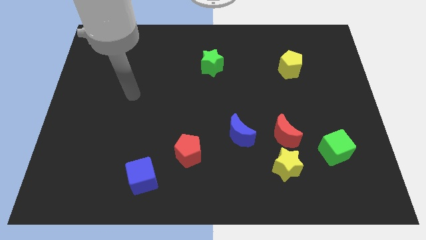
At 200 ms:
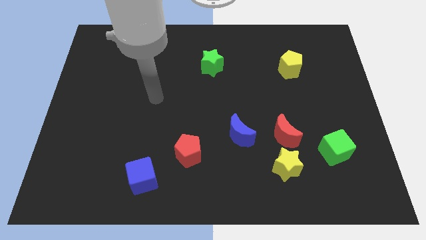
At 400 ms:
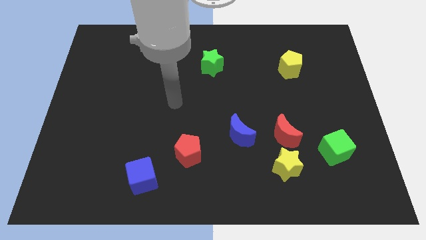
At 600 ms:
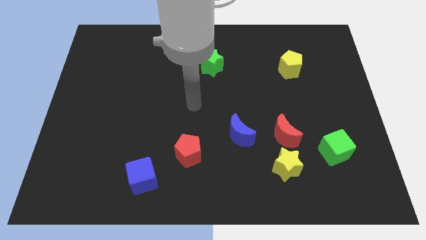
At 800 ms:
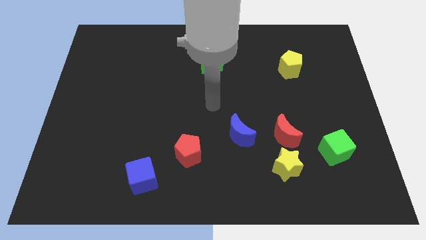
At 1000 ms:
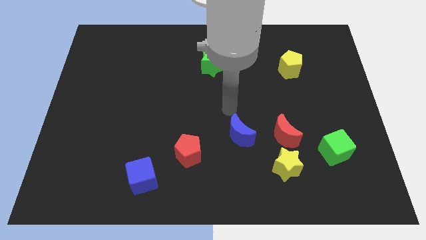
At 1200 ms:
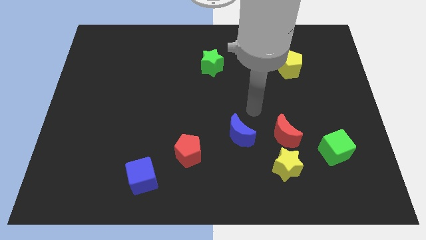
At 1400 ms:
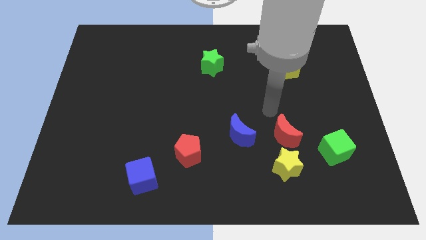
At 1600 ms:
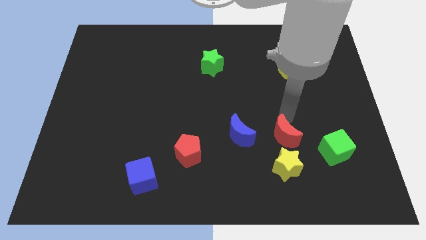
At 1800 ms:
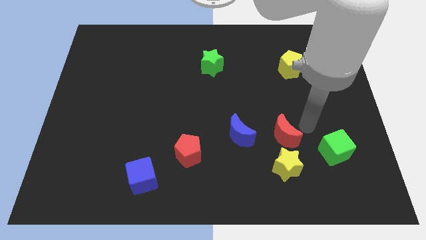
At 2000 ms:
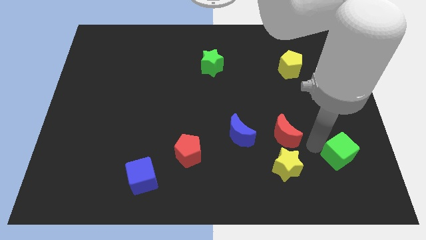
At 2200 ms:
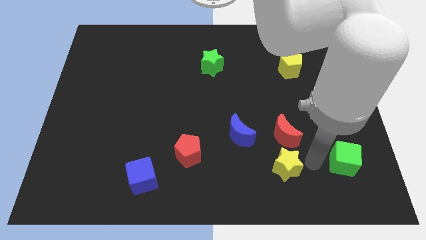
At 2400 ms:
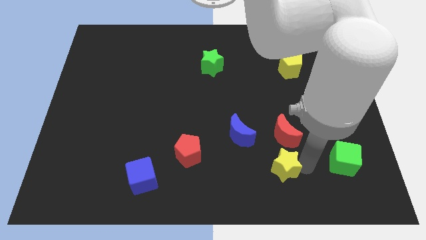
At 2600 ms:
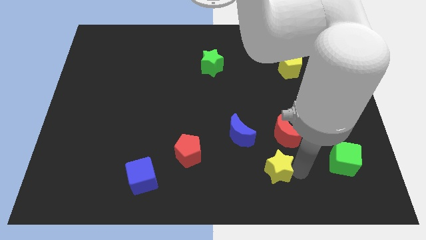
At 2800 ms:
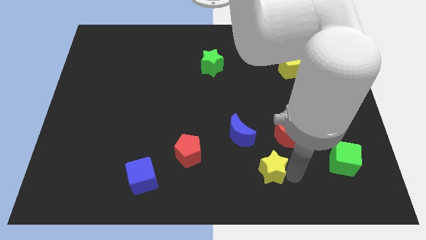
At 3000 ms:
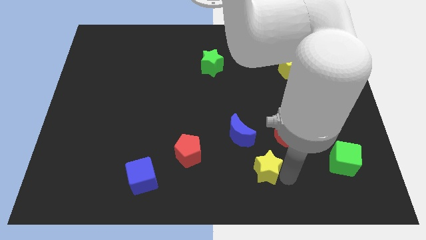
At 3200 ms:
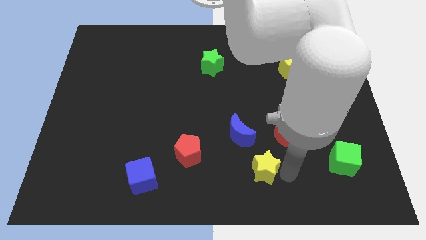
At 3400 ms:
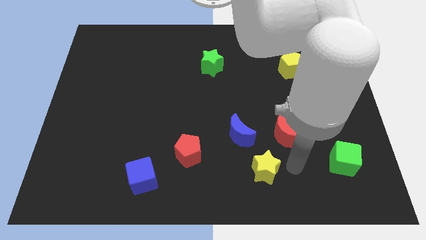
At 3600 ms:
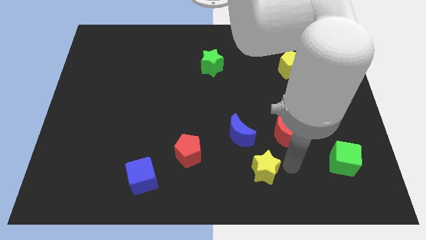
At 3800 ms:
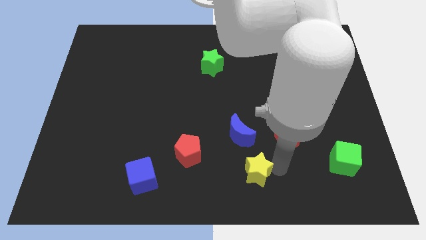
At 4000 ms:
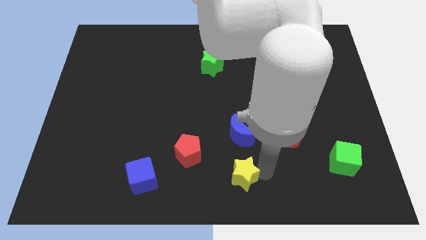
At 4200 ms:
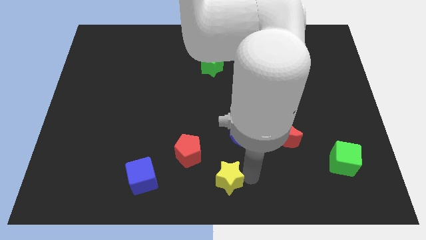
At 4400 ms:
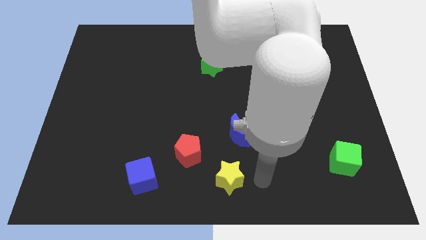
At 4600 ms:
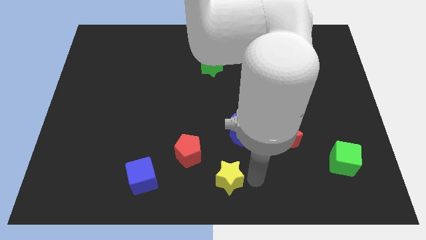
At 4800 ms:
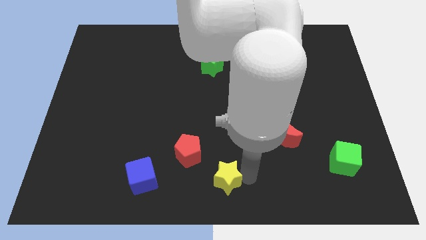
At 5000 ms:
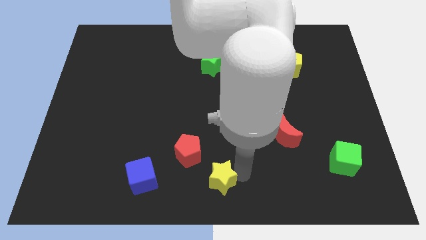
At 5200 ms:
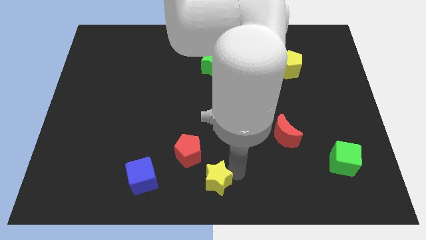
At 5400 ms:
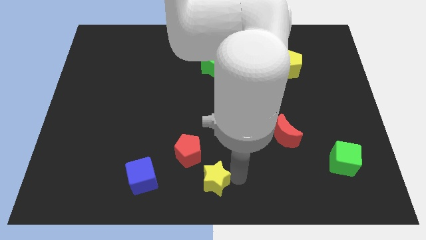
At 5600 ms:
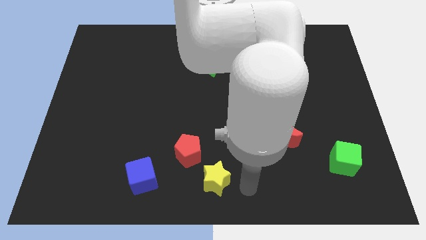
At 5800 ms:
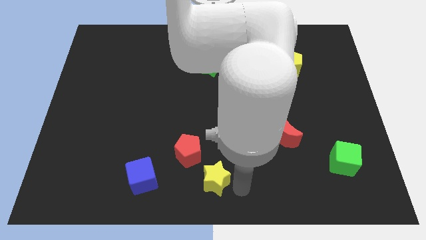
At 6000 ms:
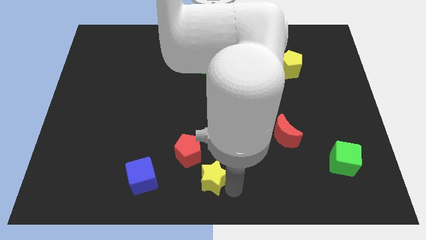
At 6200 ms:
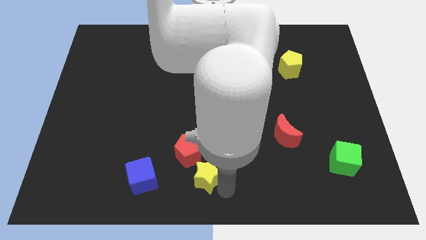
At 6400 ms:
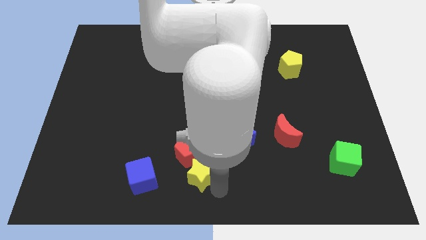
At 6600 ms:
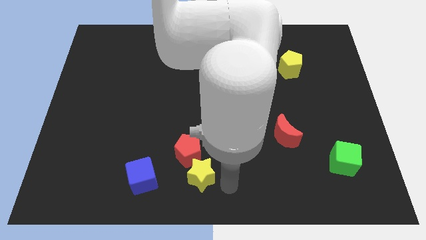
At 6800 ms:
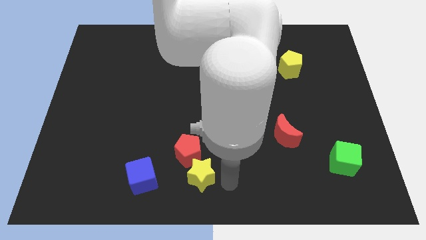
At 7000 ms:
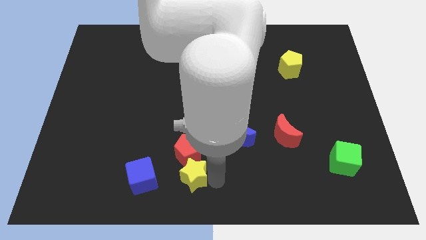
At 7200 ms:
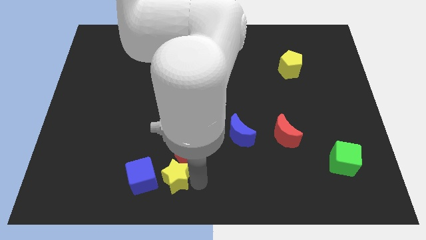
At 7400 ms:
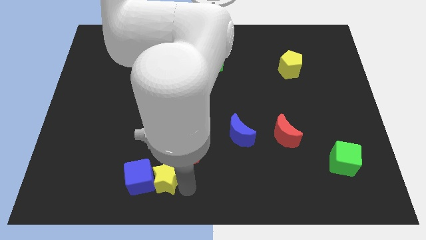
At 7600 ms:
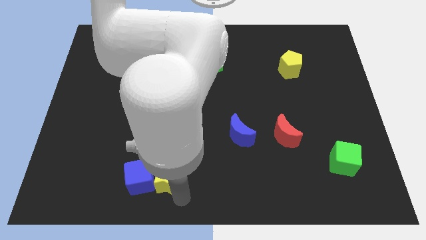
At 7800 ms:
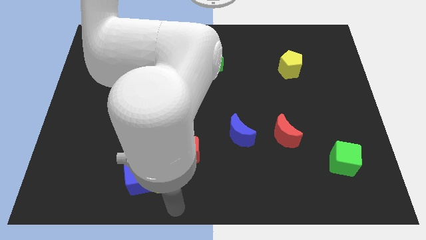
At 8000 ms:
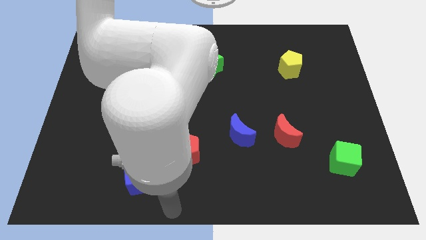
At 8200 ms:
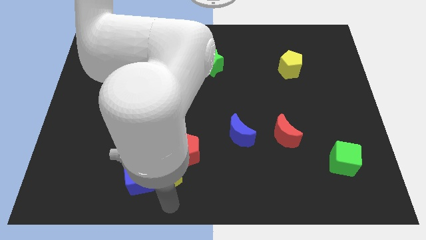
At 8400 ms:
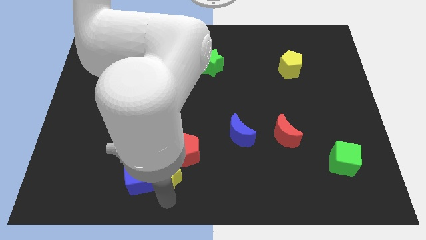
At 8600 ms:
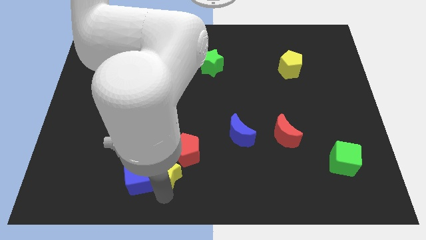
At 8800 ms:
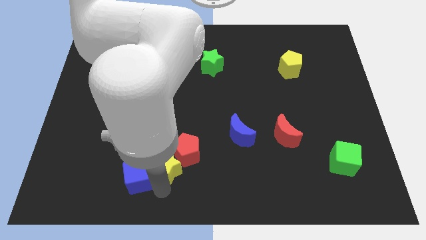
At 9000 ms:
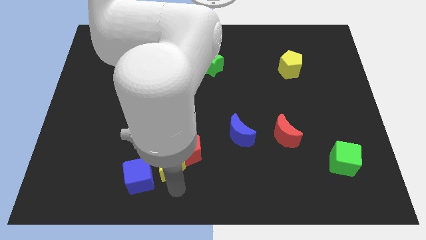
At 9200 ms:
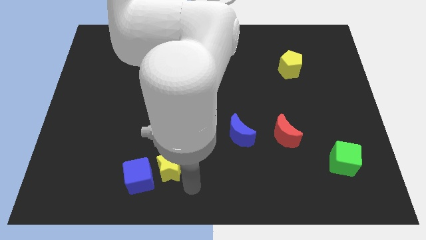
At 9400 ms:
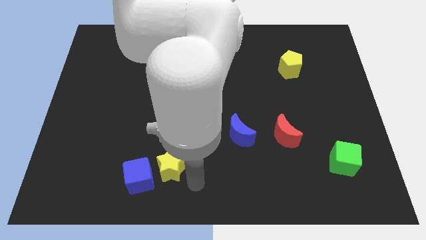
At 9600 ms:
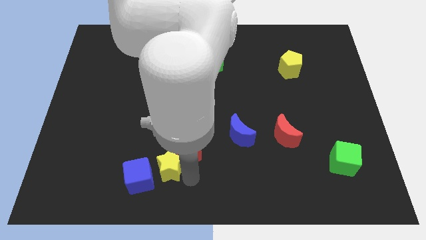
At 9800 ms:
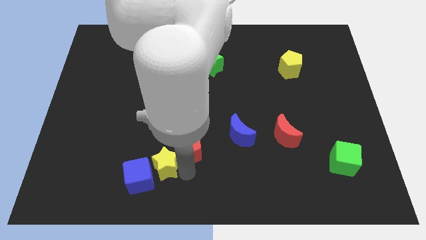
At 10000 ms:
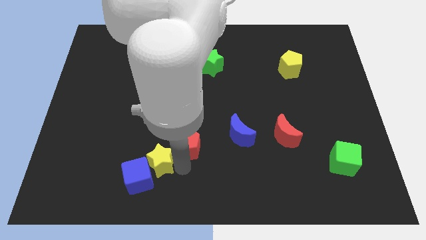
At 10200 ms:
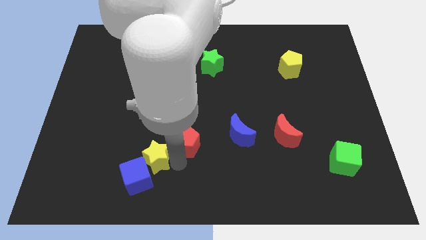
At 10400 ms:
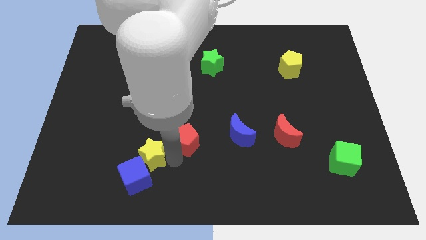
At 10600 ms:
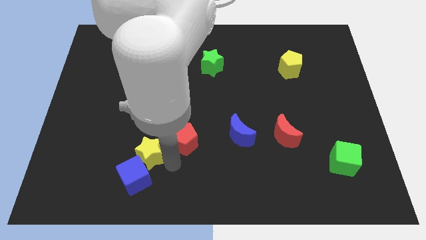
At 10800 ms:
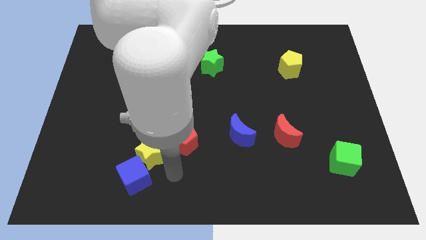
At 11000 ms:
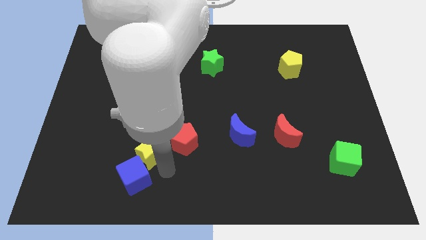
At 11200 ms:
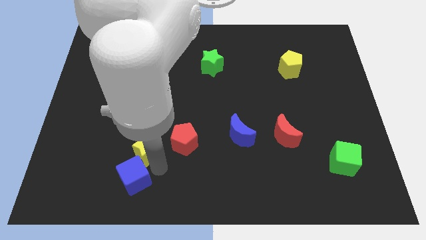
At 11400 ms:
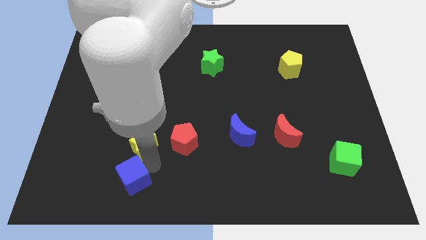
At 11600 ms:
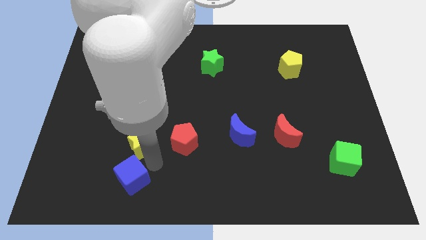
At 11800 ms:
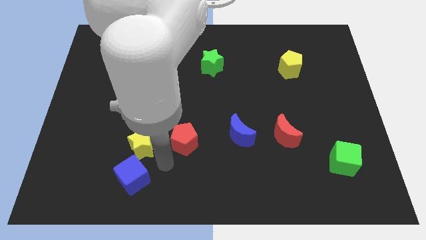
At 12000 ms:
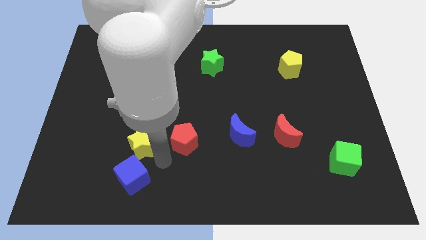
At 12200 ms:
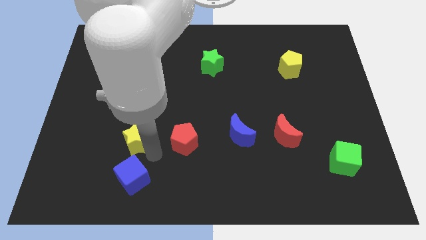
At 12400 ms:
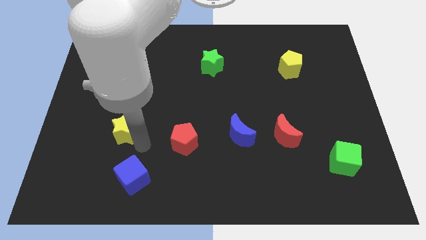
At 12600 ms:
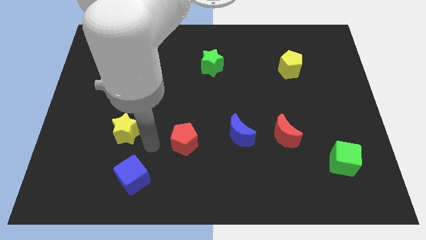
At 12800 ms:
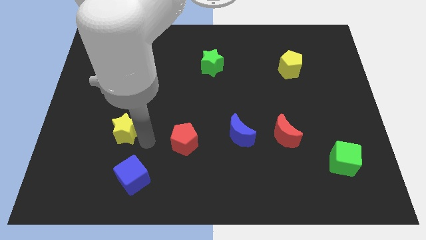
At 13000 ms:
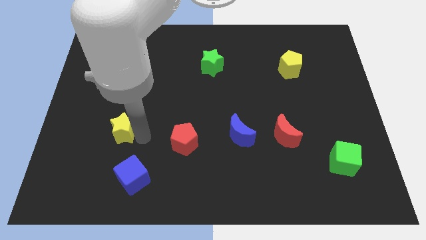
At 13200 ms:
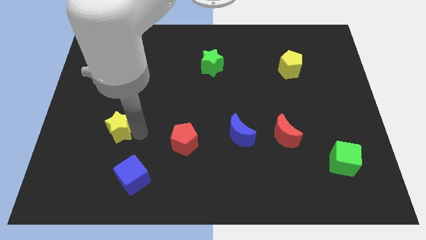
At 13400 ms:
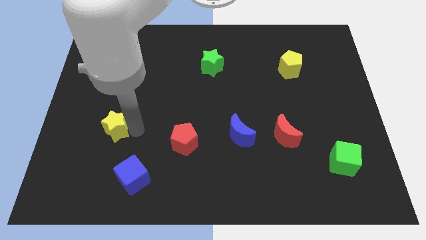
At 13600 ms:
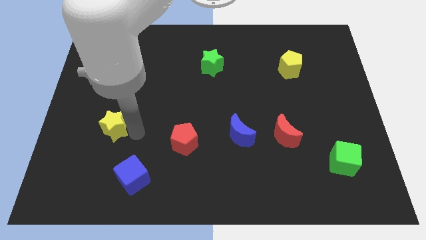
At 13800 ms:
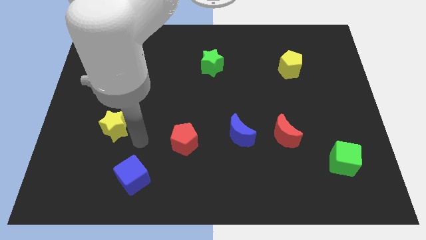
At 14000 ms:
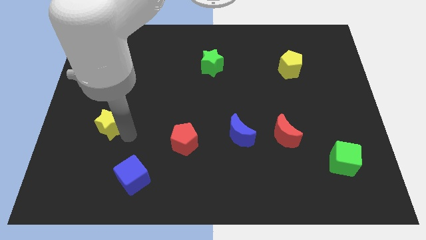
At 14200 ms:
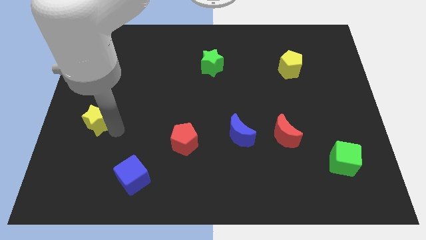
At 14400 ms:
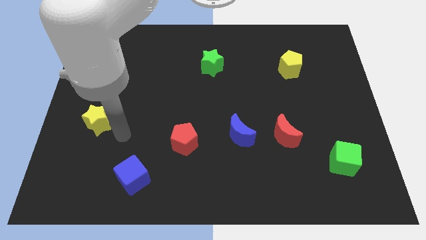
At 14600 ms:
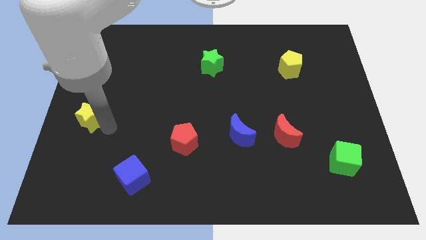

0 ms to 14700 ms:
slide the yellow star to the left side of the board
